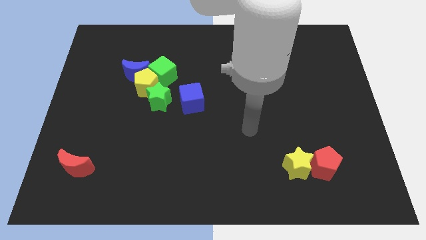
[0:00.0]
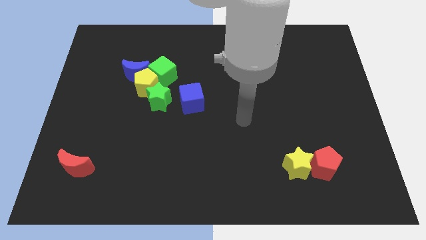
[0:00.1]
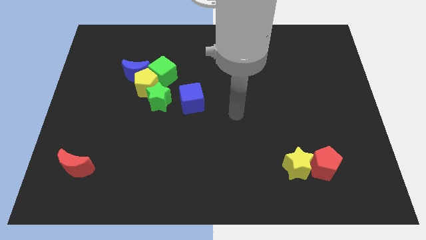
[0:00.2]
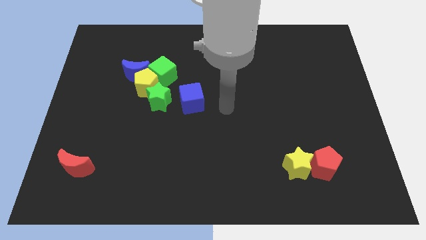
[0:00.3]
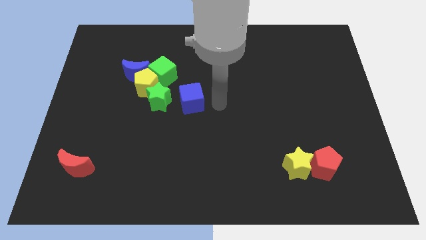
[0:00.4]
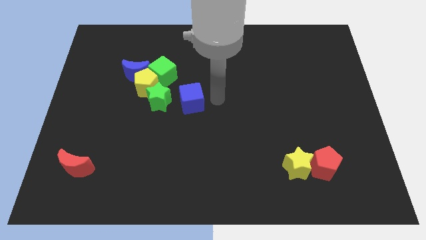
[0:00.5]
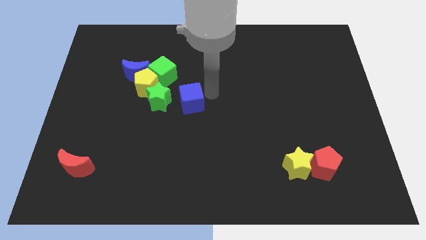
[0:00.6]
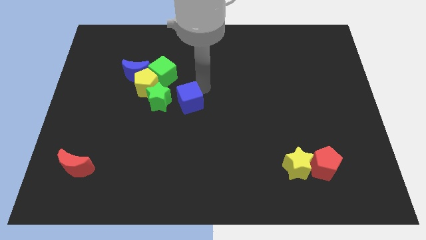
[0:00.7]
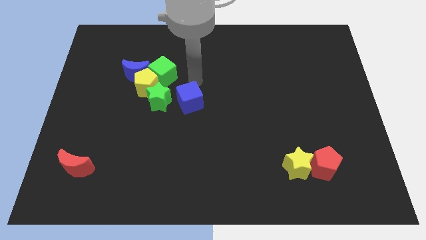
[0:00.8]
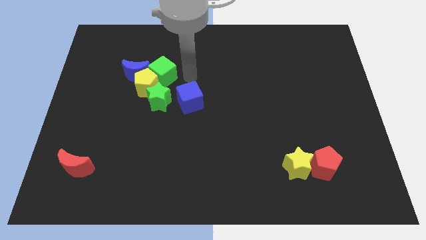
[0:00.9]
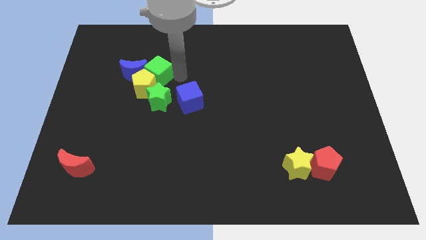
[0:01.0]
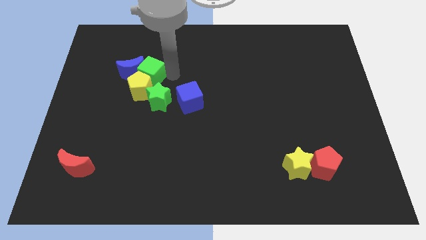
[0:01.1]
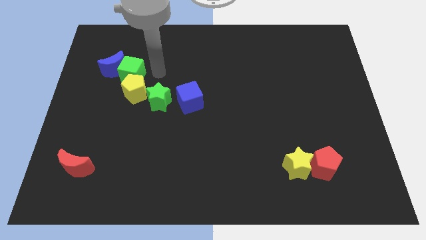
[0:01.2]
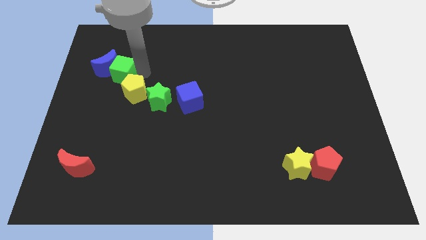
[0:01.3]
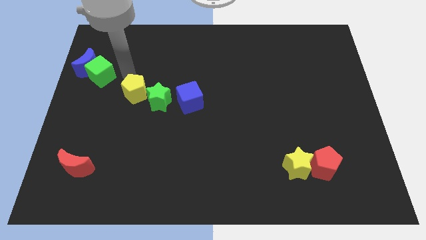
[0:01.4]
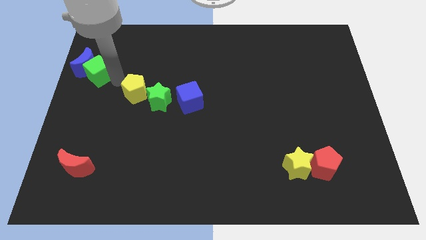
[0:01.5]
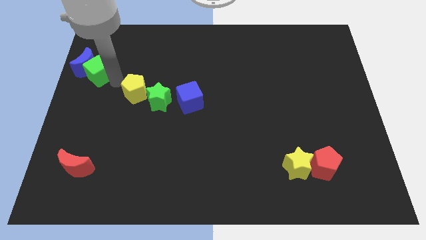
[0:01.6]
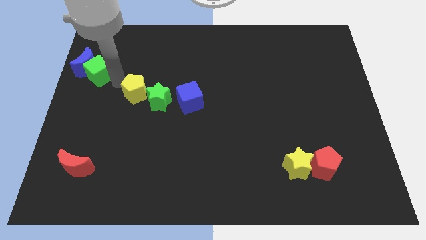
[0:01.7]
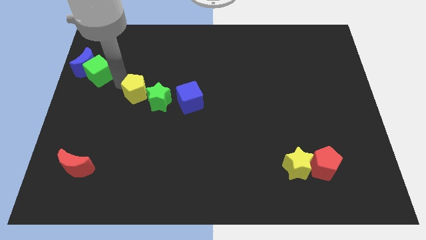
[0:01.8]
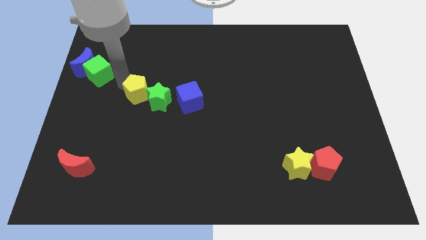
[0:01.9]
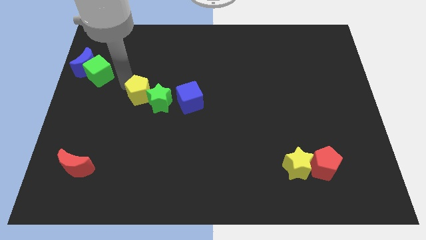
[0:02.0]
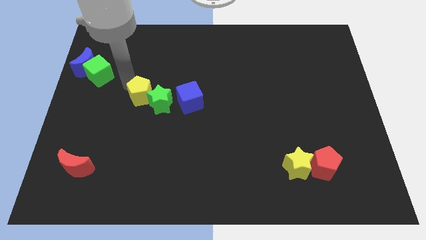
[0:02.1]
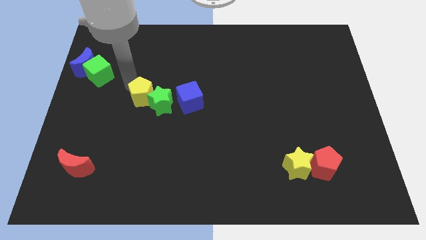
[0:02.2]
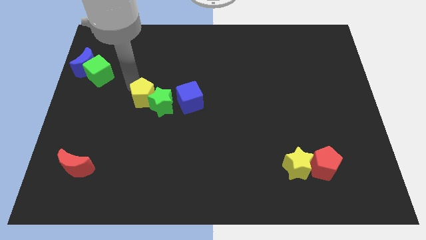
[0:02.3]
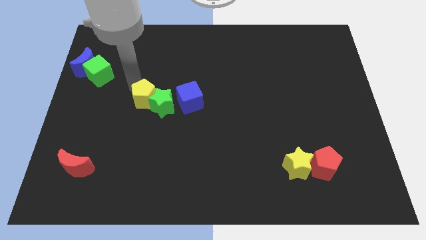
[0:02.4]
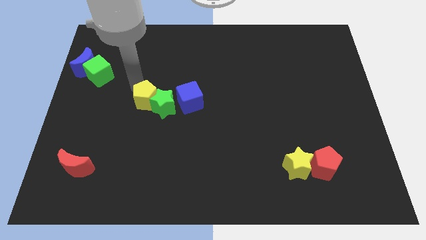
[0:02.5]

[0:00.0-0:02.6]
move the yellow pentagon away from the blue moon, green cube, and green star

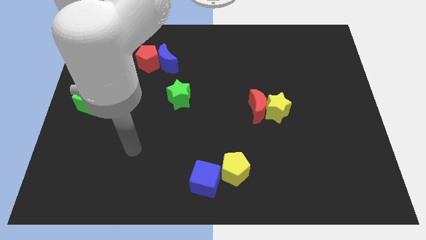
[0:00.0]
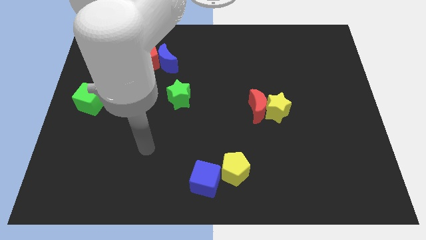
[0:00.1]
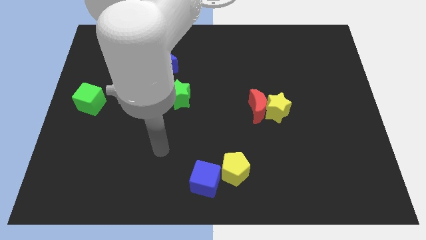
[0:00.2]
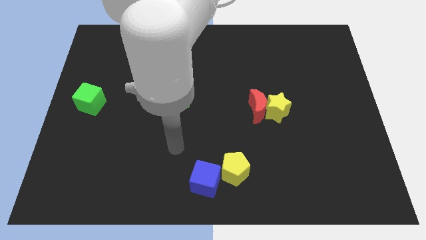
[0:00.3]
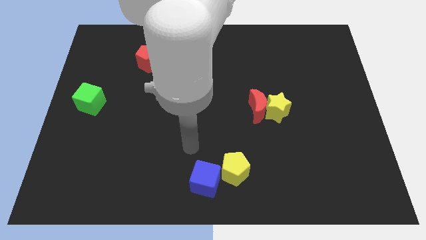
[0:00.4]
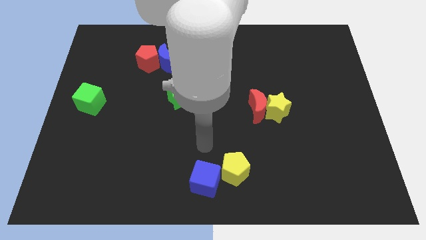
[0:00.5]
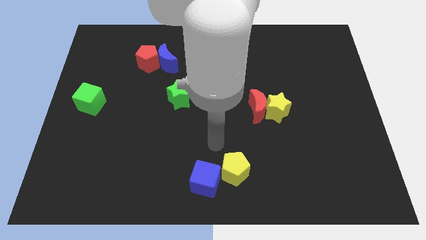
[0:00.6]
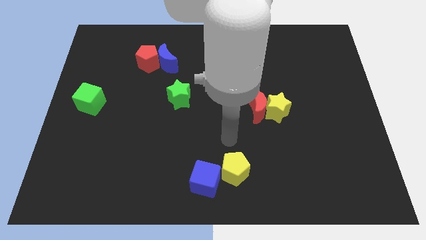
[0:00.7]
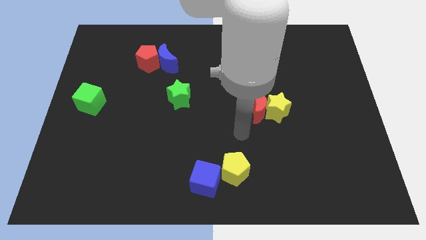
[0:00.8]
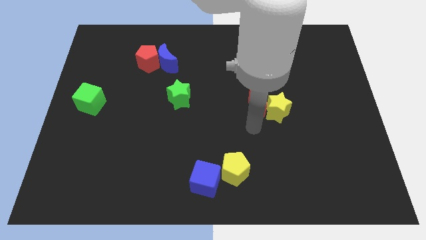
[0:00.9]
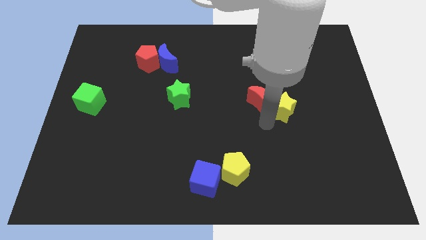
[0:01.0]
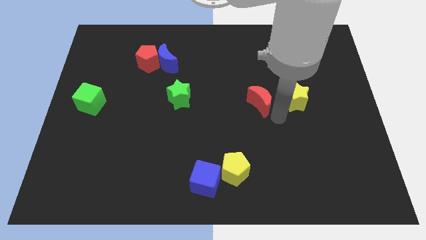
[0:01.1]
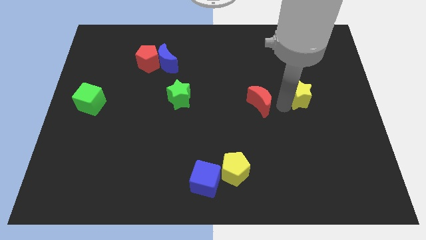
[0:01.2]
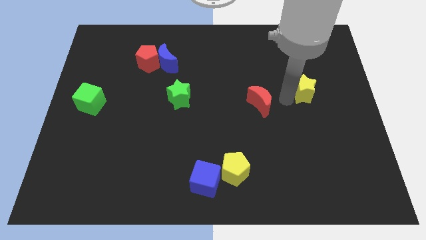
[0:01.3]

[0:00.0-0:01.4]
move the red moon away from the yellow star

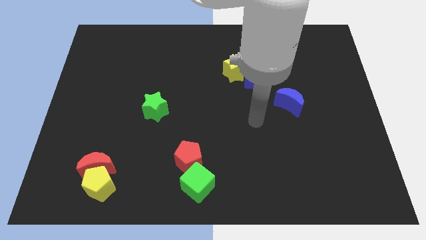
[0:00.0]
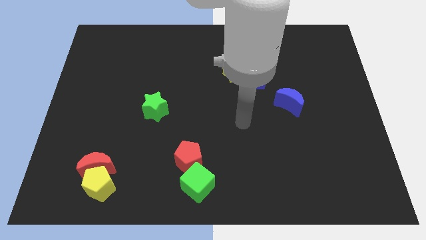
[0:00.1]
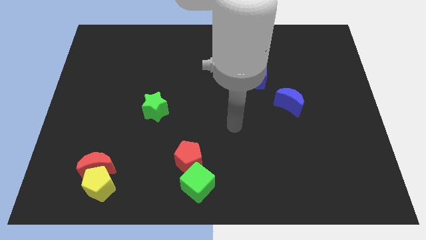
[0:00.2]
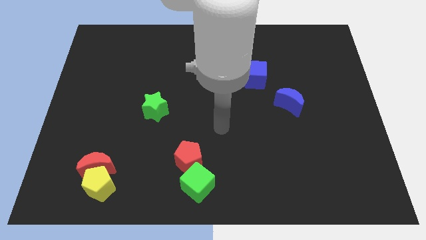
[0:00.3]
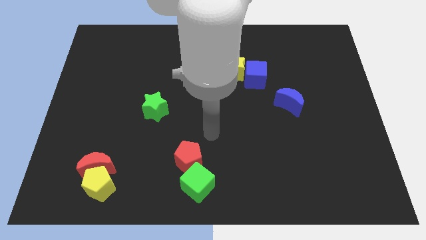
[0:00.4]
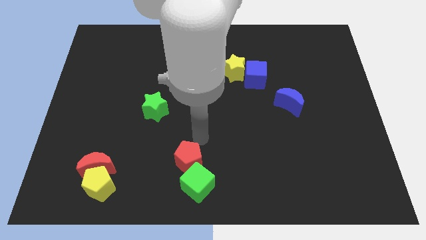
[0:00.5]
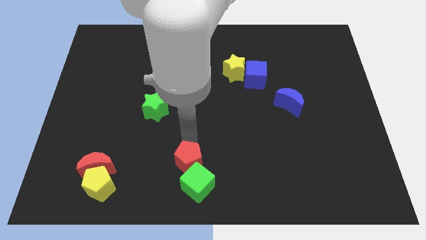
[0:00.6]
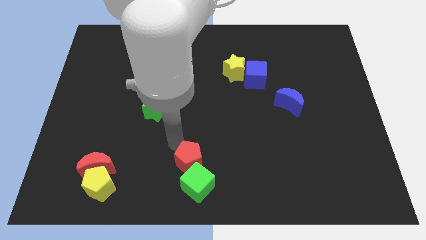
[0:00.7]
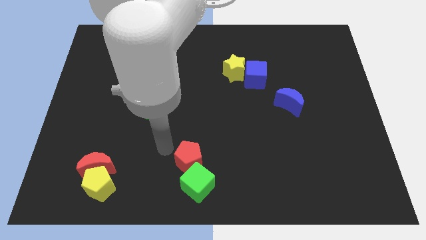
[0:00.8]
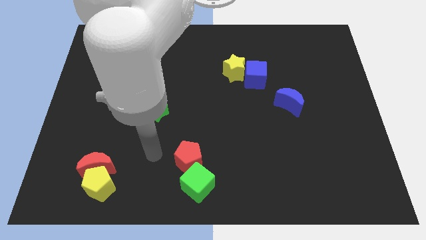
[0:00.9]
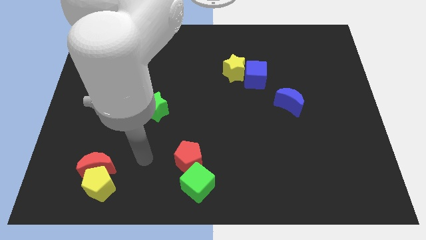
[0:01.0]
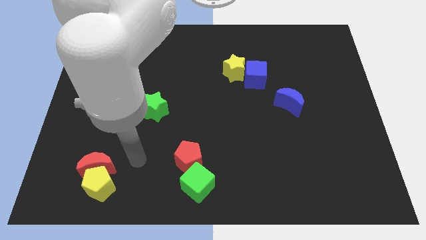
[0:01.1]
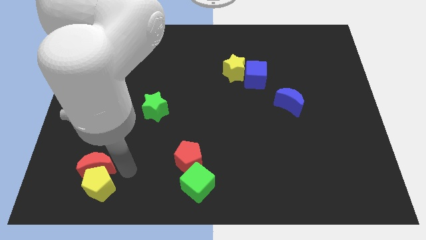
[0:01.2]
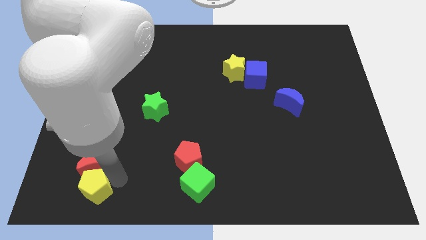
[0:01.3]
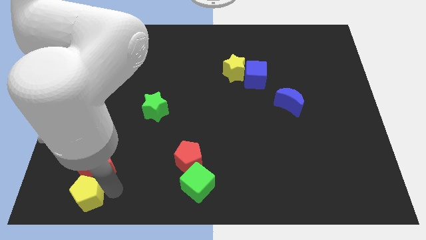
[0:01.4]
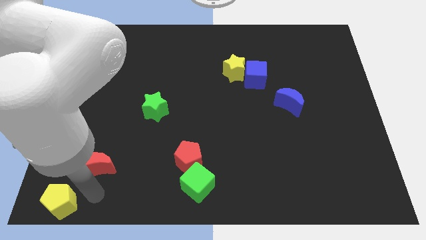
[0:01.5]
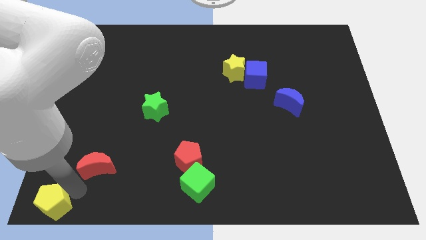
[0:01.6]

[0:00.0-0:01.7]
separate the red moon from the yellow pentagon

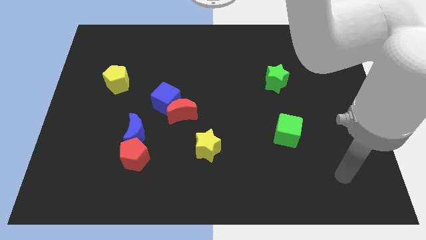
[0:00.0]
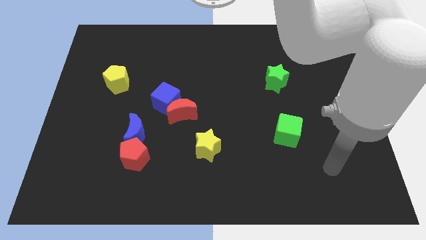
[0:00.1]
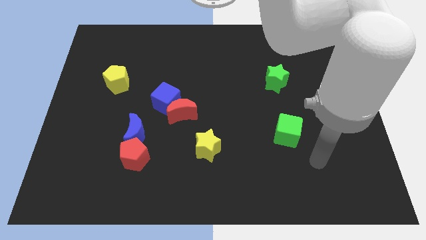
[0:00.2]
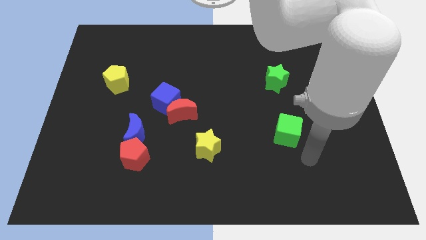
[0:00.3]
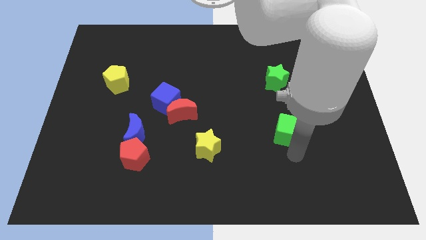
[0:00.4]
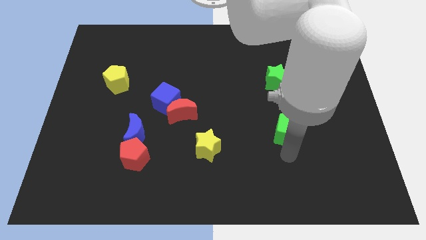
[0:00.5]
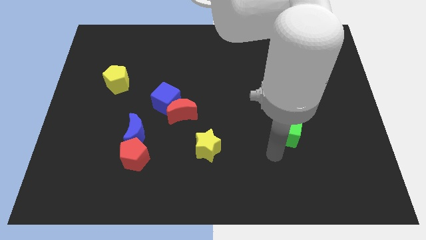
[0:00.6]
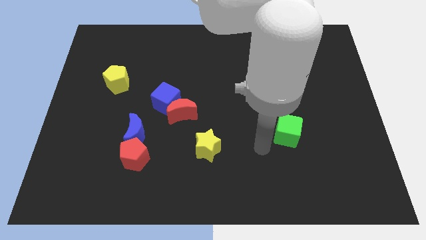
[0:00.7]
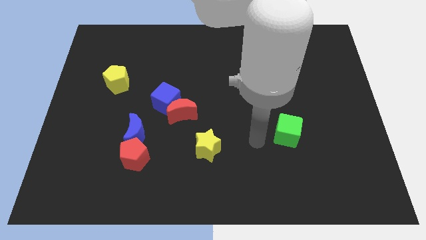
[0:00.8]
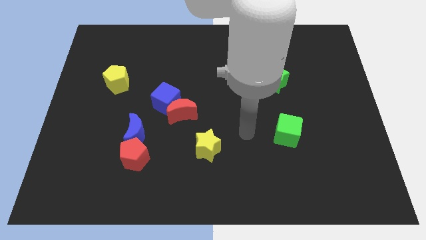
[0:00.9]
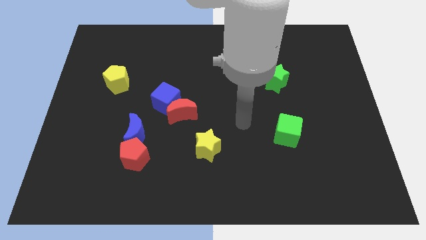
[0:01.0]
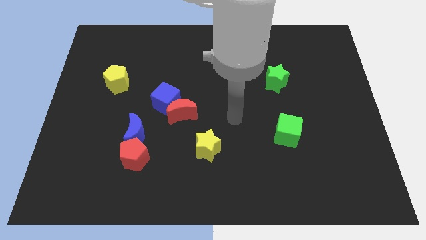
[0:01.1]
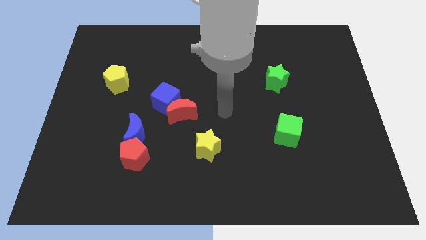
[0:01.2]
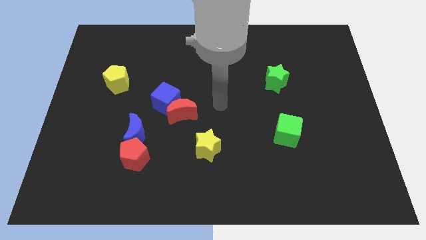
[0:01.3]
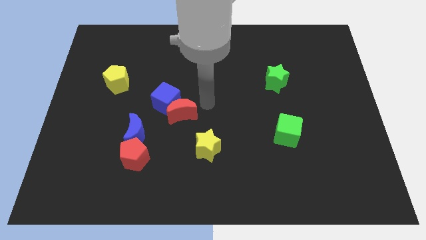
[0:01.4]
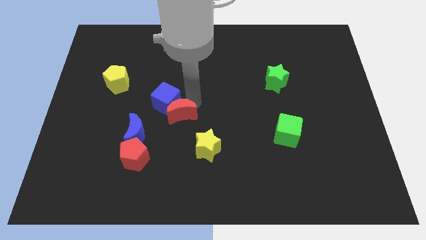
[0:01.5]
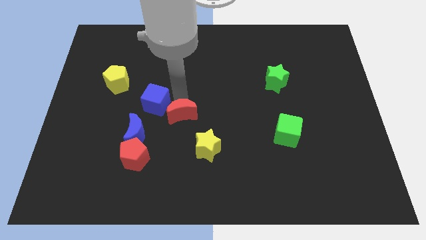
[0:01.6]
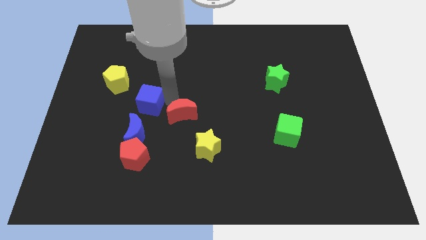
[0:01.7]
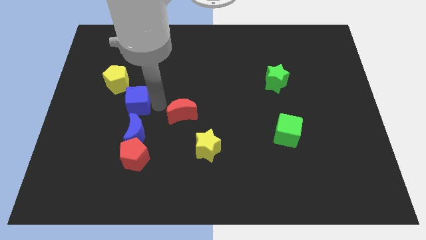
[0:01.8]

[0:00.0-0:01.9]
separate the red moon from the blue cube

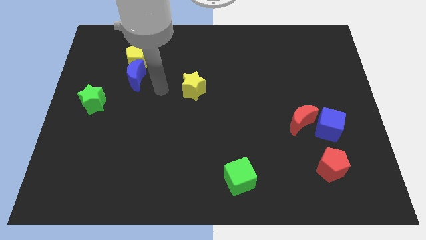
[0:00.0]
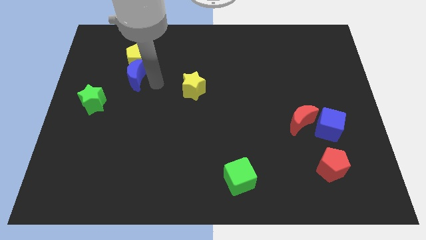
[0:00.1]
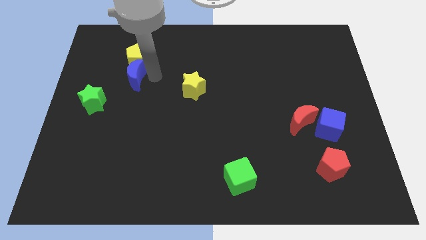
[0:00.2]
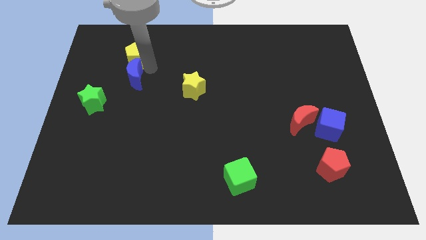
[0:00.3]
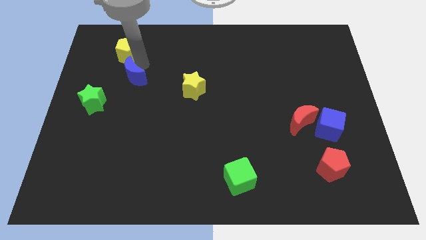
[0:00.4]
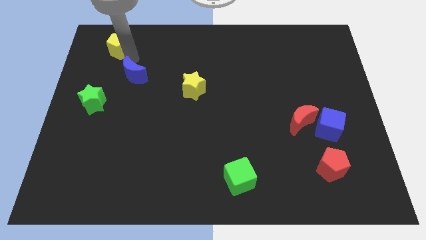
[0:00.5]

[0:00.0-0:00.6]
move the blue moon away from the yellow pentagon

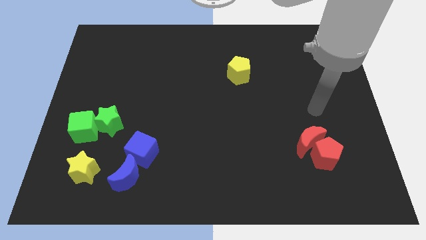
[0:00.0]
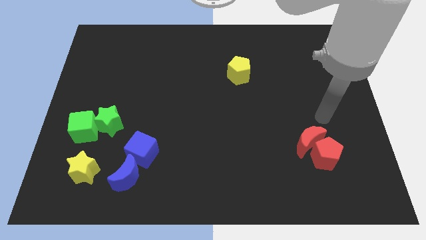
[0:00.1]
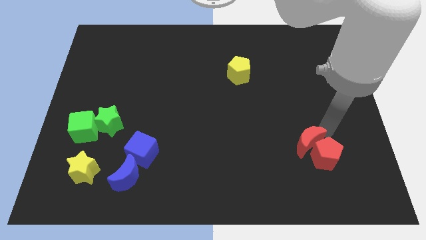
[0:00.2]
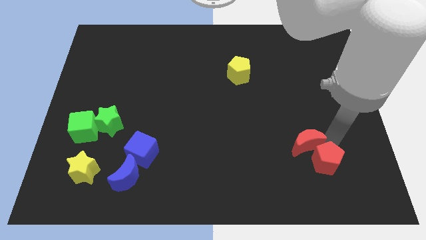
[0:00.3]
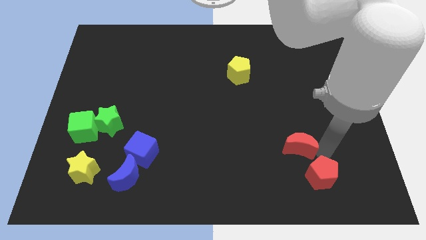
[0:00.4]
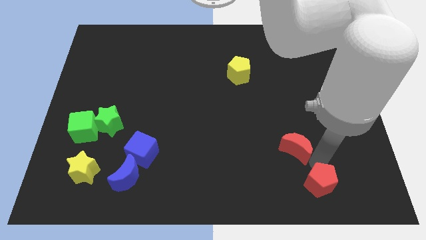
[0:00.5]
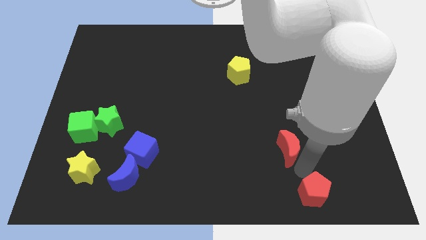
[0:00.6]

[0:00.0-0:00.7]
pull the red moon apart from the red pentagon

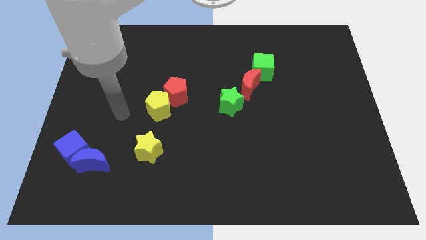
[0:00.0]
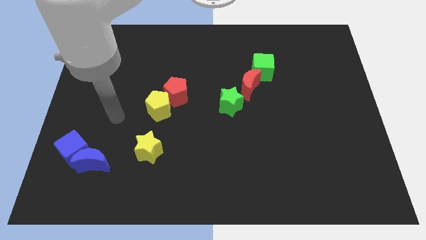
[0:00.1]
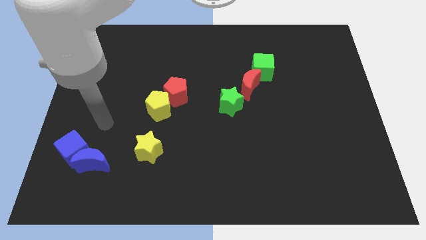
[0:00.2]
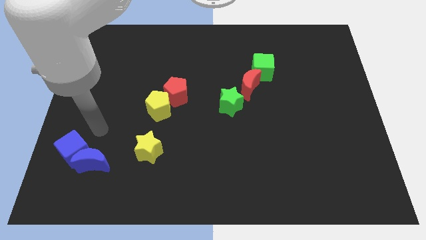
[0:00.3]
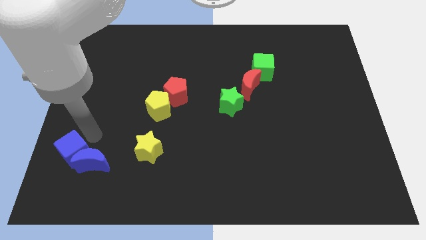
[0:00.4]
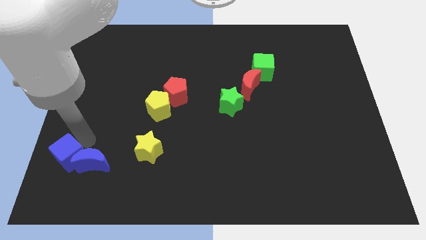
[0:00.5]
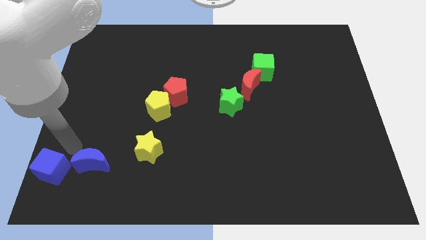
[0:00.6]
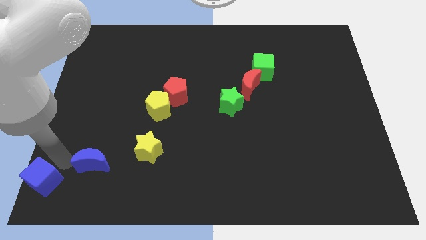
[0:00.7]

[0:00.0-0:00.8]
move the blue moon away from the blue cube
